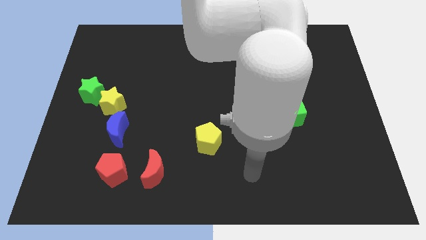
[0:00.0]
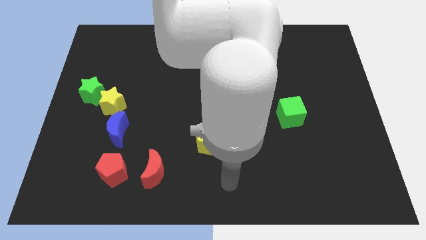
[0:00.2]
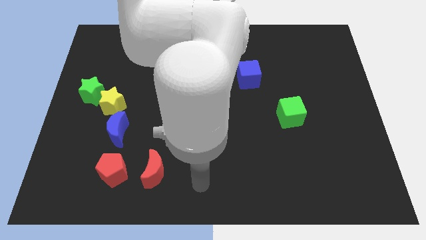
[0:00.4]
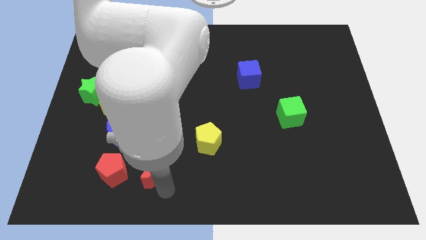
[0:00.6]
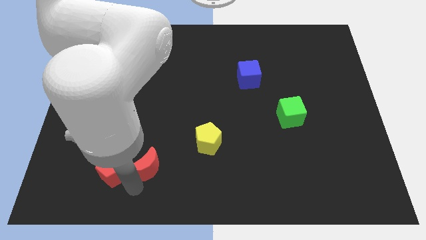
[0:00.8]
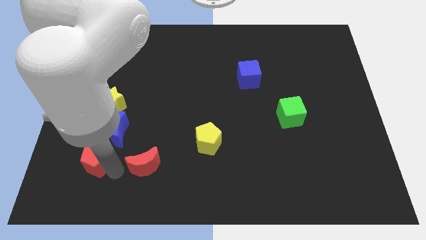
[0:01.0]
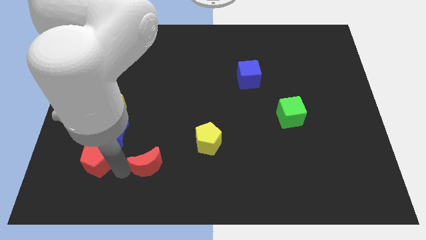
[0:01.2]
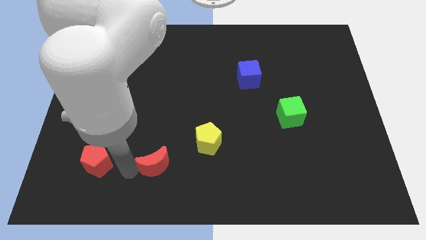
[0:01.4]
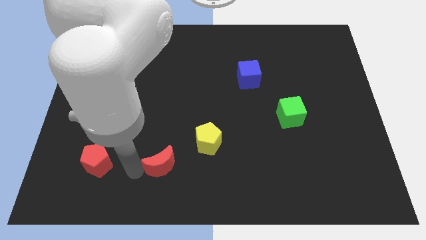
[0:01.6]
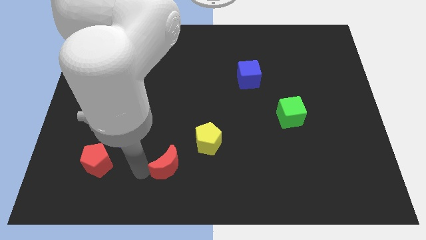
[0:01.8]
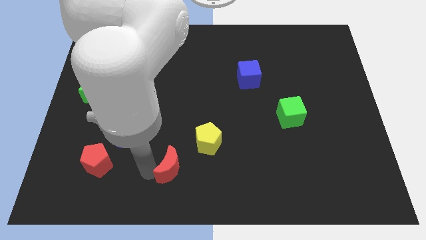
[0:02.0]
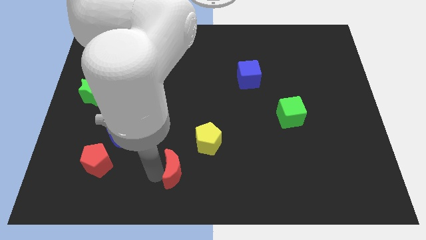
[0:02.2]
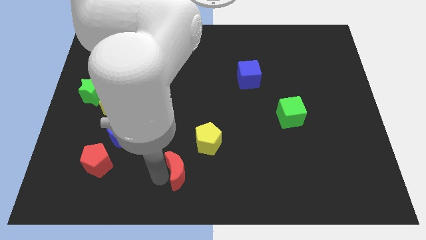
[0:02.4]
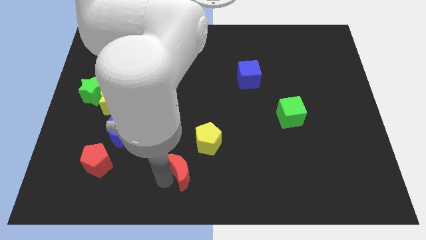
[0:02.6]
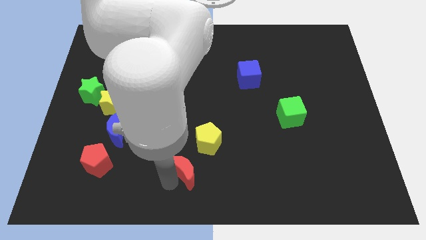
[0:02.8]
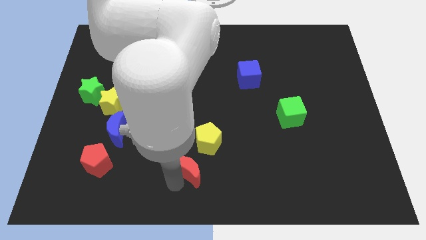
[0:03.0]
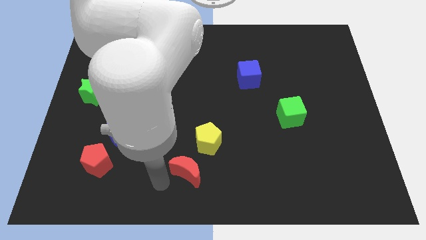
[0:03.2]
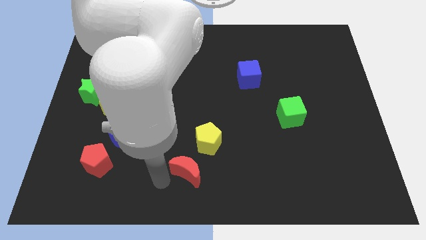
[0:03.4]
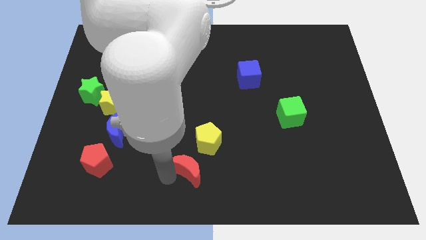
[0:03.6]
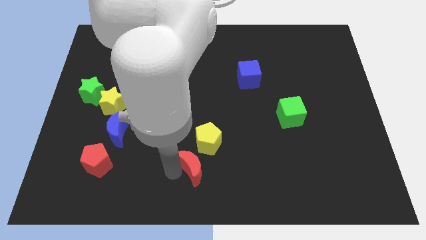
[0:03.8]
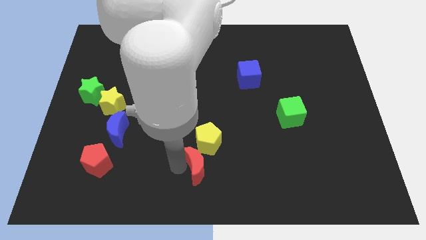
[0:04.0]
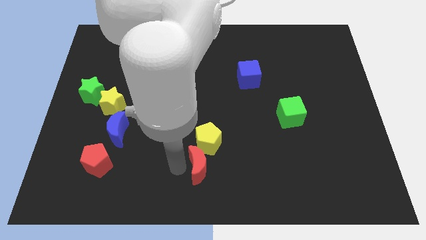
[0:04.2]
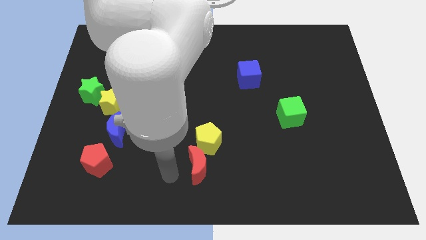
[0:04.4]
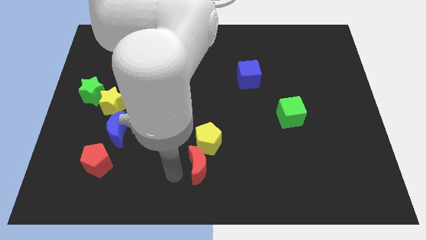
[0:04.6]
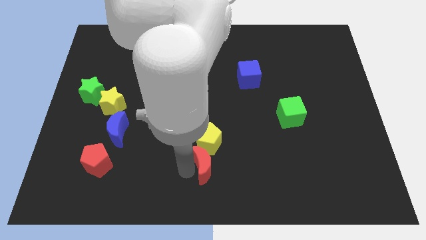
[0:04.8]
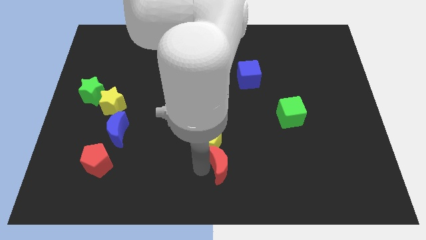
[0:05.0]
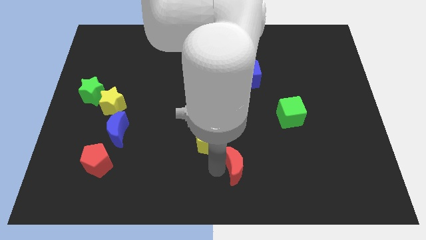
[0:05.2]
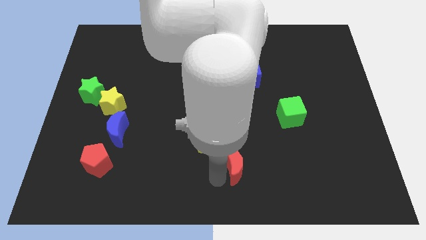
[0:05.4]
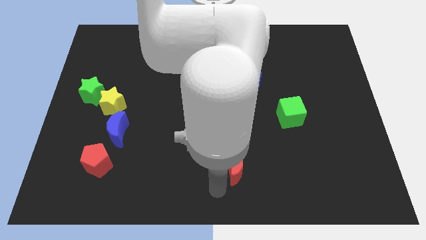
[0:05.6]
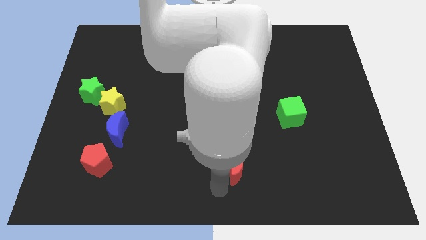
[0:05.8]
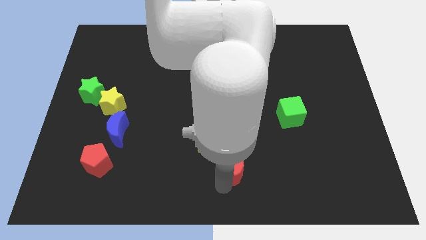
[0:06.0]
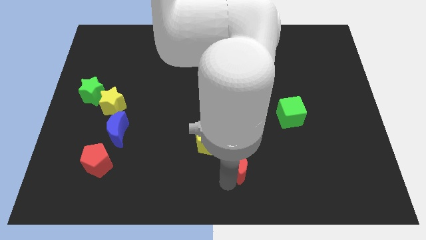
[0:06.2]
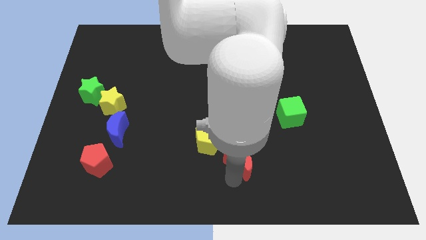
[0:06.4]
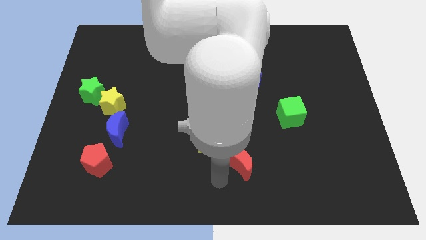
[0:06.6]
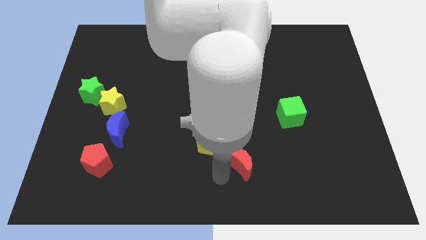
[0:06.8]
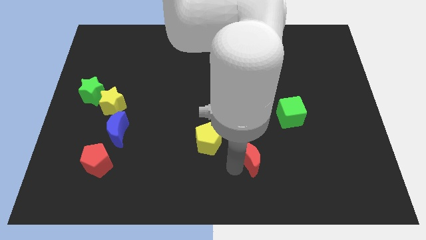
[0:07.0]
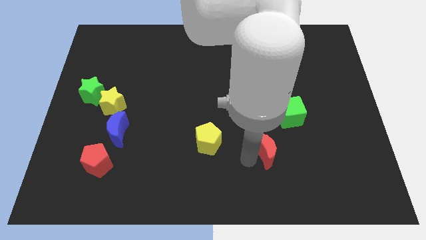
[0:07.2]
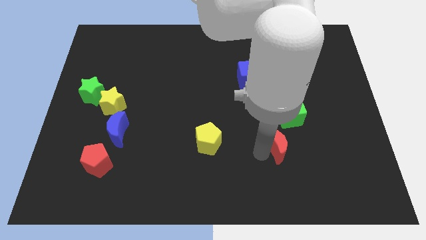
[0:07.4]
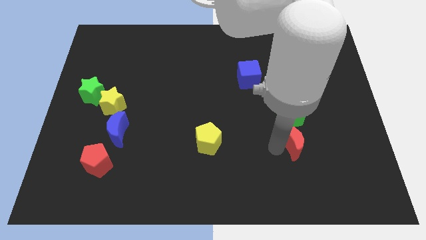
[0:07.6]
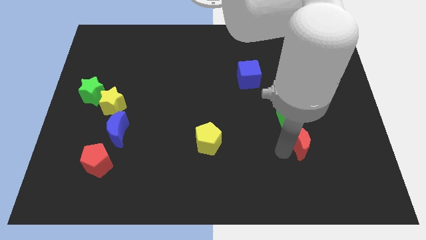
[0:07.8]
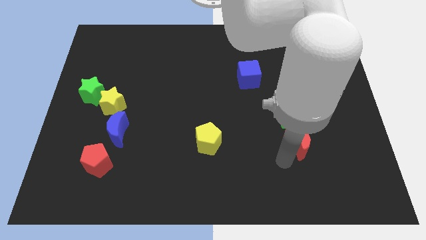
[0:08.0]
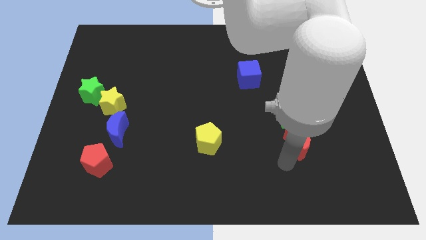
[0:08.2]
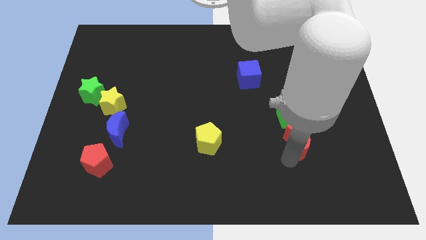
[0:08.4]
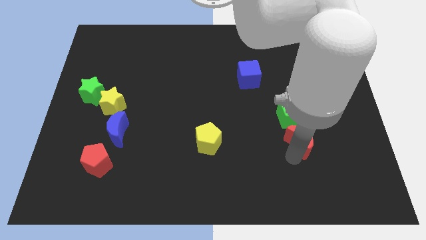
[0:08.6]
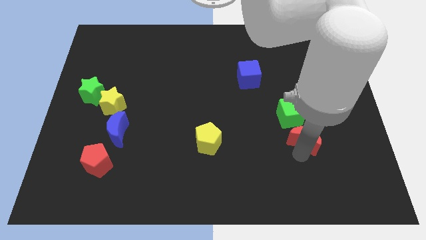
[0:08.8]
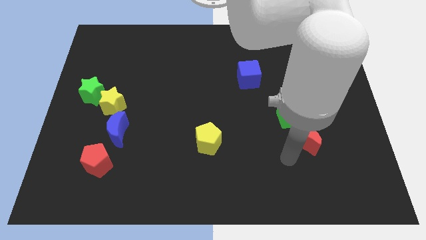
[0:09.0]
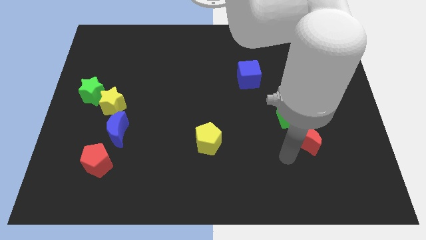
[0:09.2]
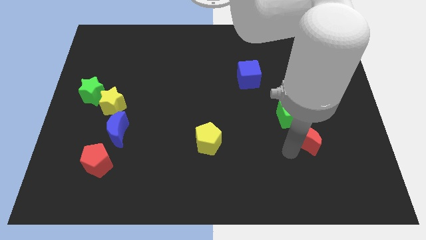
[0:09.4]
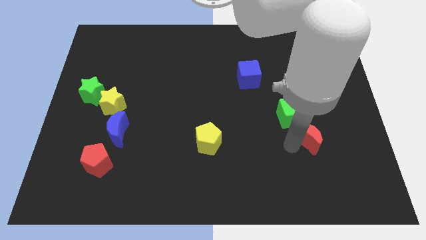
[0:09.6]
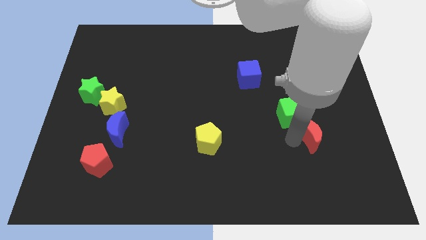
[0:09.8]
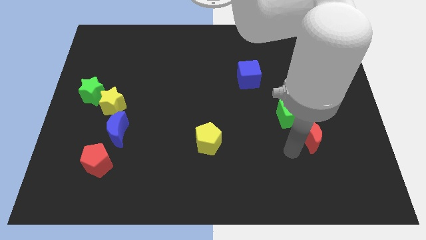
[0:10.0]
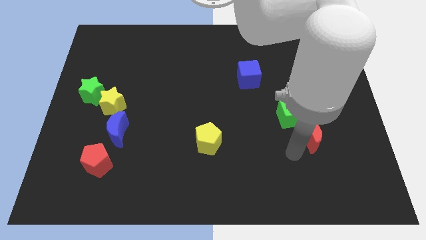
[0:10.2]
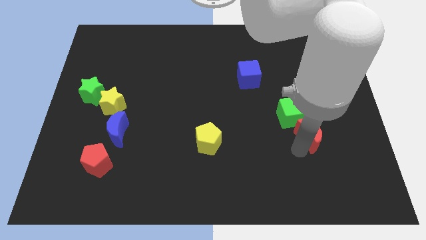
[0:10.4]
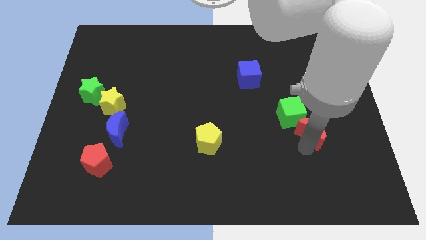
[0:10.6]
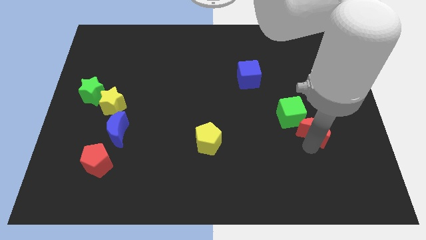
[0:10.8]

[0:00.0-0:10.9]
push the red moon to the right side of the green cube

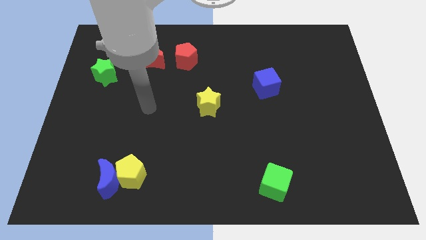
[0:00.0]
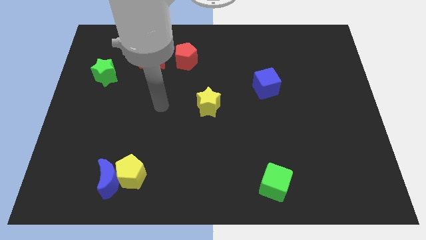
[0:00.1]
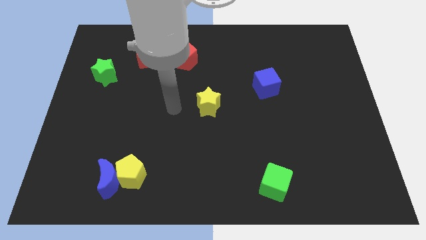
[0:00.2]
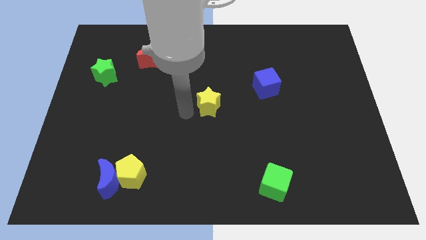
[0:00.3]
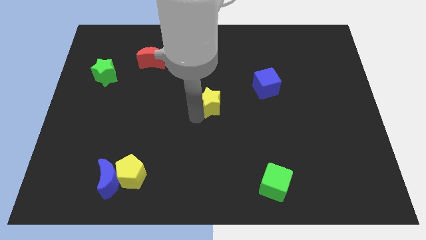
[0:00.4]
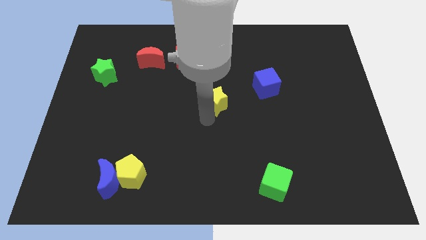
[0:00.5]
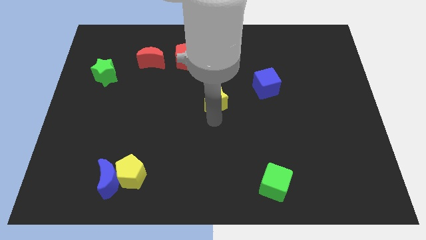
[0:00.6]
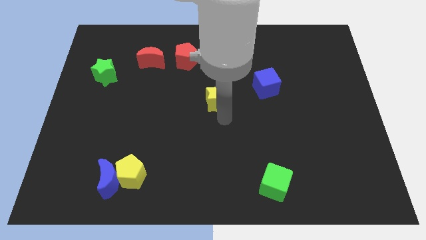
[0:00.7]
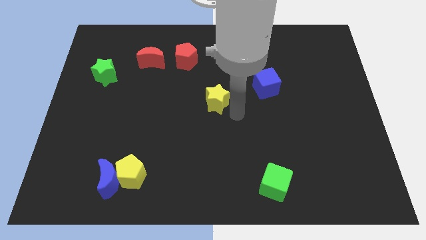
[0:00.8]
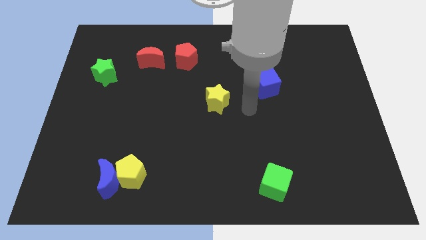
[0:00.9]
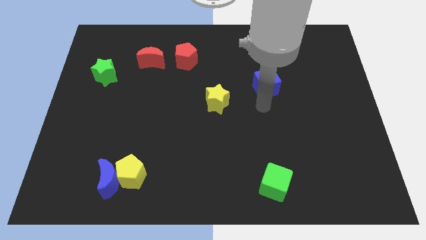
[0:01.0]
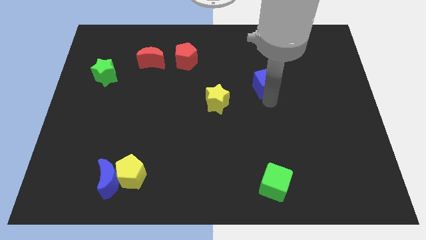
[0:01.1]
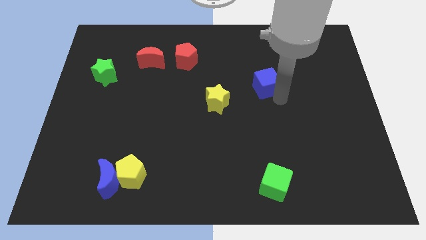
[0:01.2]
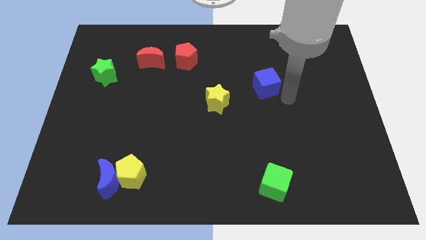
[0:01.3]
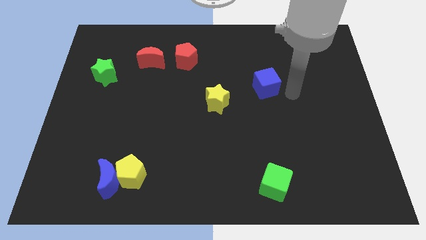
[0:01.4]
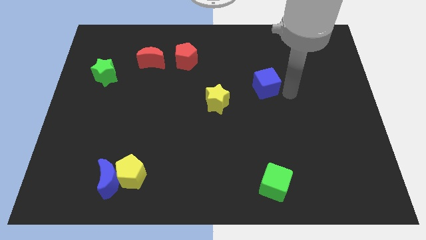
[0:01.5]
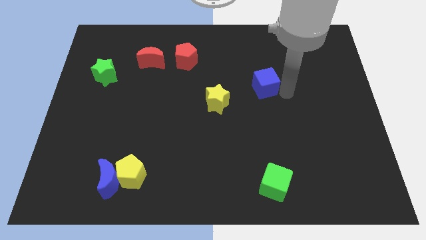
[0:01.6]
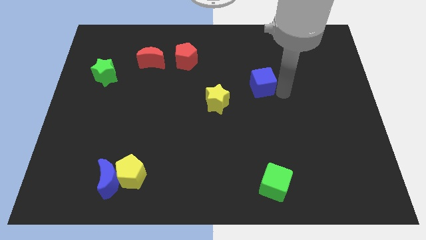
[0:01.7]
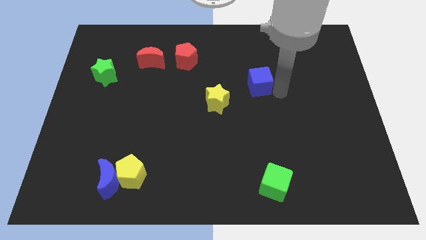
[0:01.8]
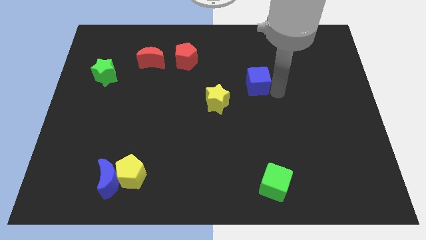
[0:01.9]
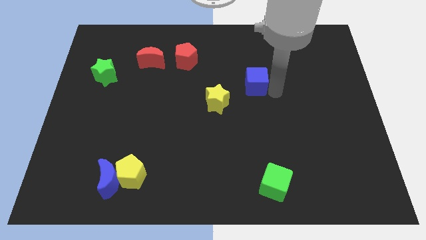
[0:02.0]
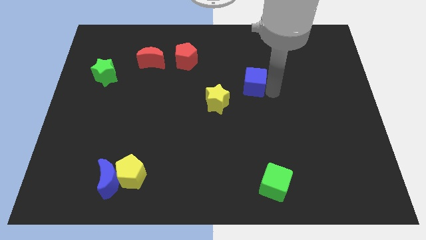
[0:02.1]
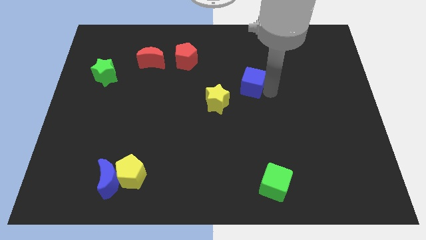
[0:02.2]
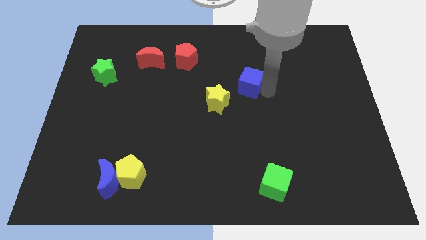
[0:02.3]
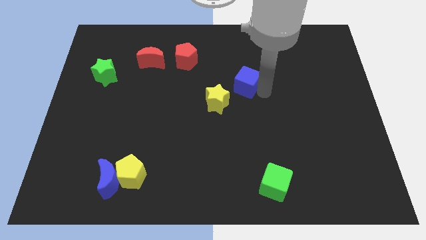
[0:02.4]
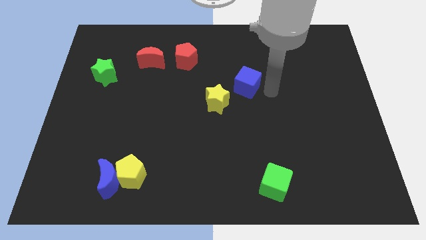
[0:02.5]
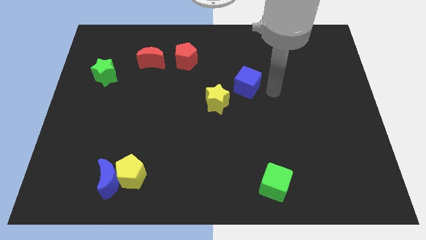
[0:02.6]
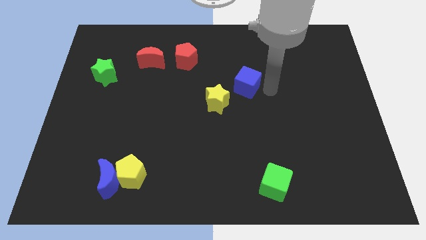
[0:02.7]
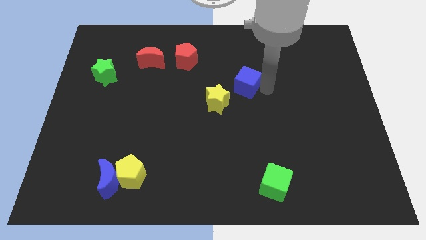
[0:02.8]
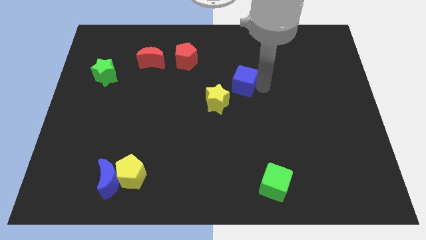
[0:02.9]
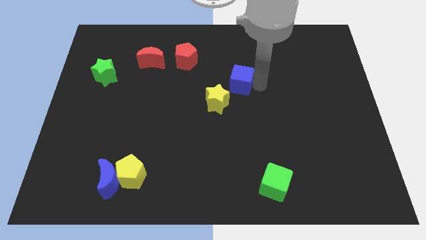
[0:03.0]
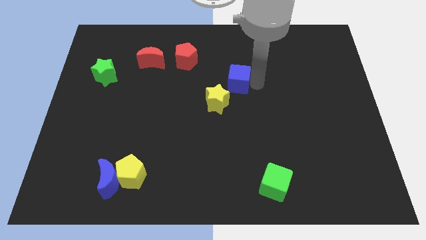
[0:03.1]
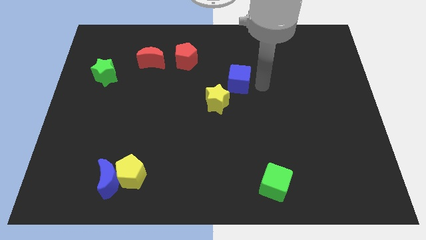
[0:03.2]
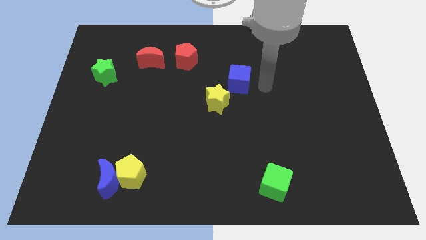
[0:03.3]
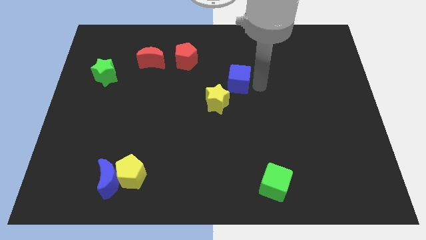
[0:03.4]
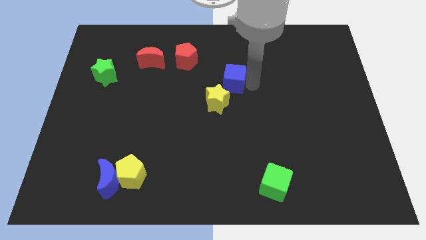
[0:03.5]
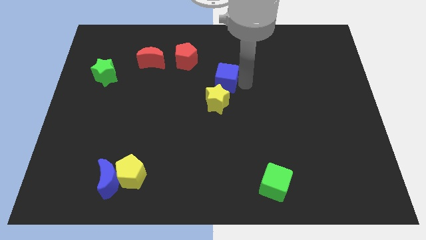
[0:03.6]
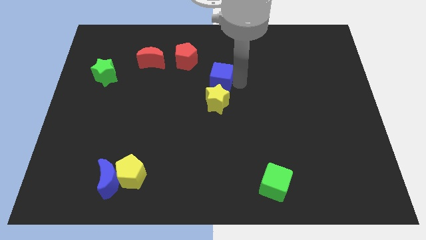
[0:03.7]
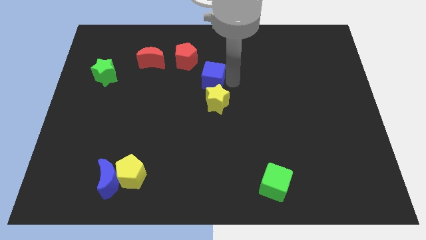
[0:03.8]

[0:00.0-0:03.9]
slide the blue cube to the top left of the yellow star
